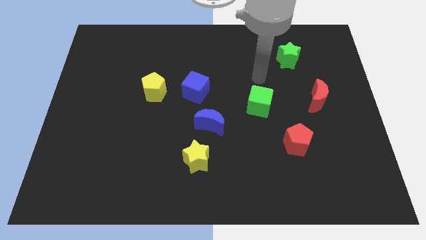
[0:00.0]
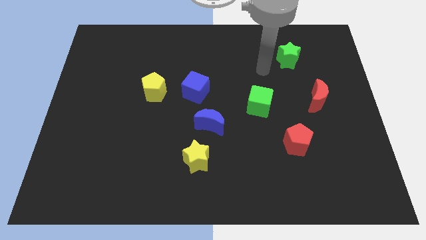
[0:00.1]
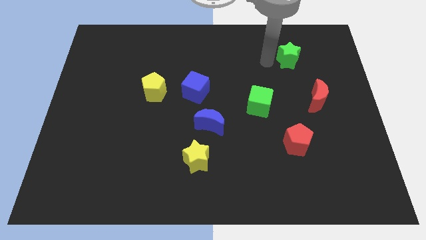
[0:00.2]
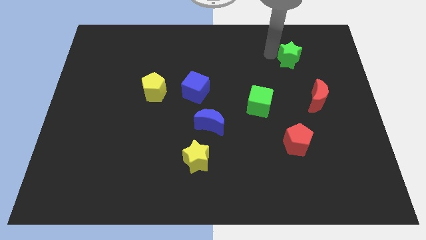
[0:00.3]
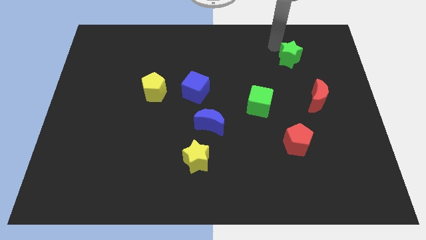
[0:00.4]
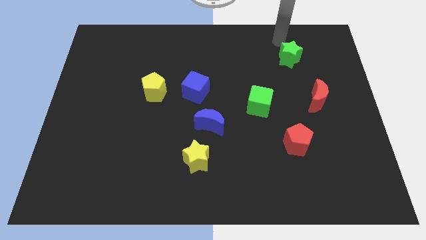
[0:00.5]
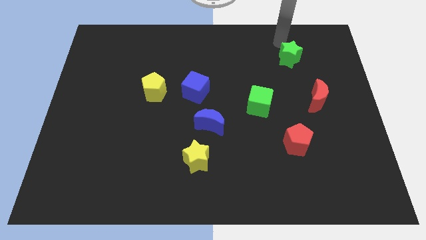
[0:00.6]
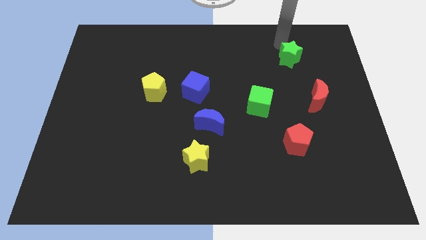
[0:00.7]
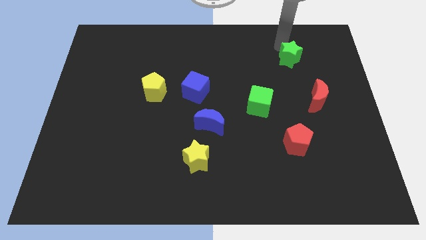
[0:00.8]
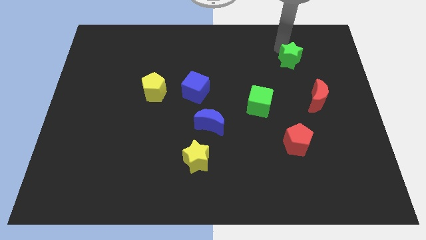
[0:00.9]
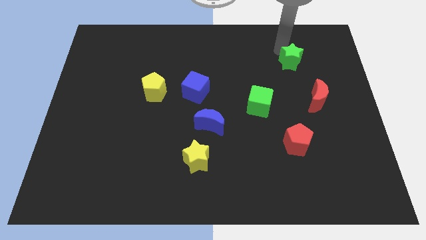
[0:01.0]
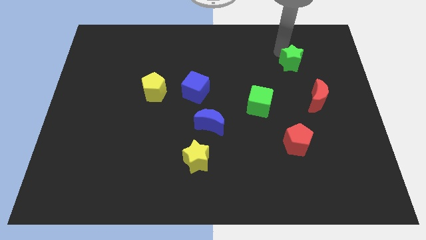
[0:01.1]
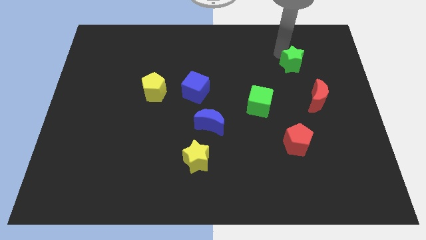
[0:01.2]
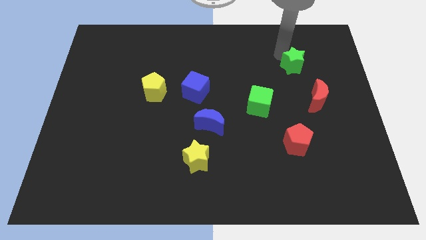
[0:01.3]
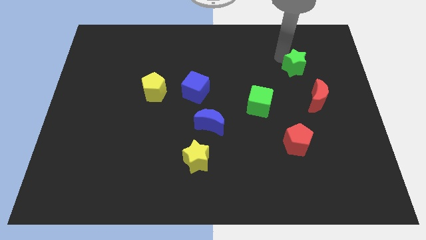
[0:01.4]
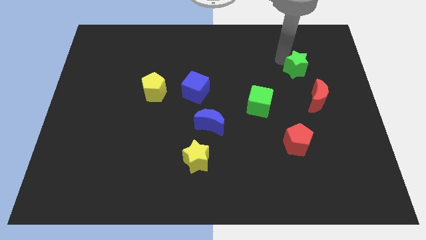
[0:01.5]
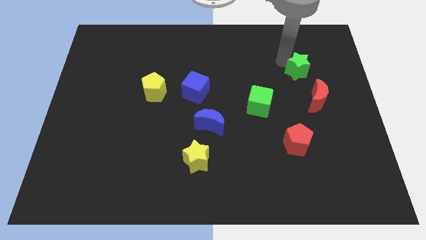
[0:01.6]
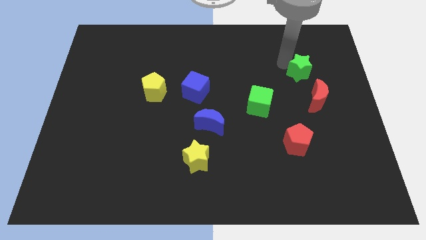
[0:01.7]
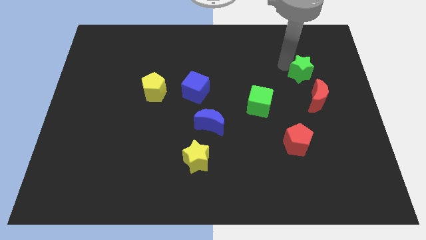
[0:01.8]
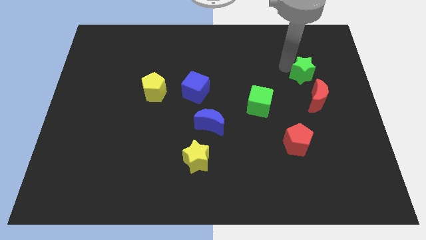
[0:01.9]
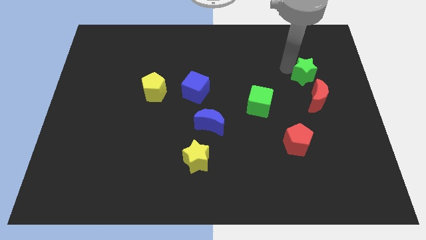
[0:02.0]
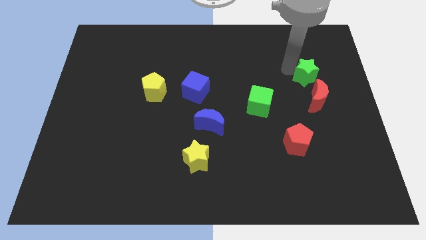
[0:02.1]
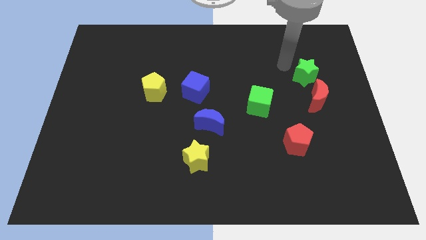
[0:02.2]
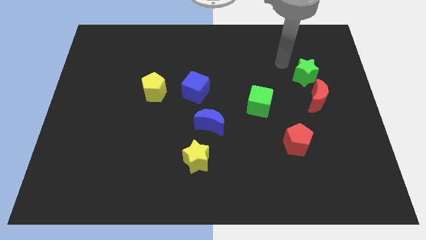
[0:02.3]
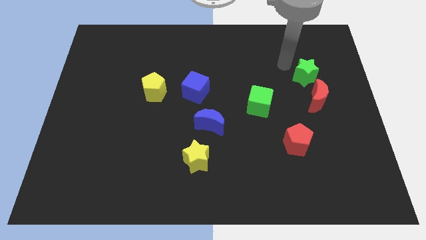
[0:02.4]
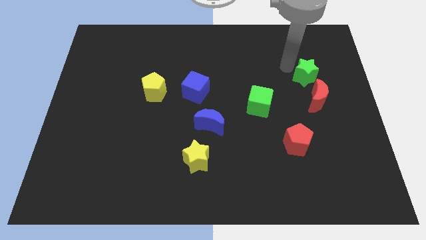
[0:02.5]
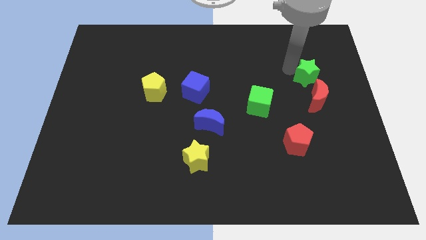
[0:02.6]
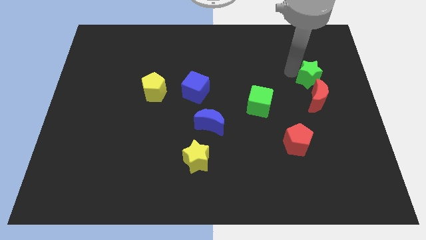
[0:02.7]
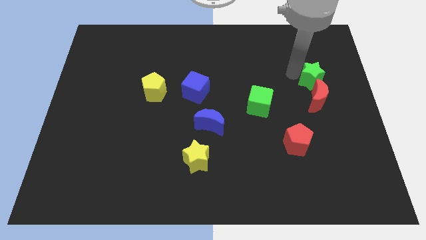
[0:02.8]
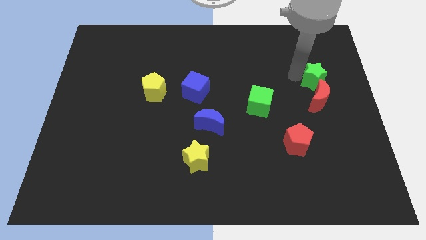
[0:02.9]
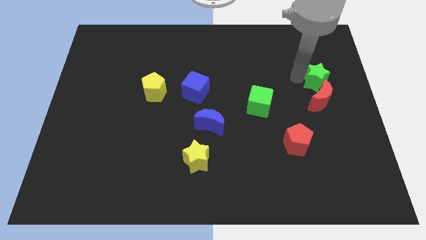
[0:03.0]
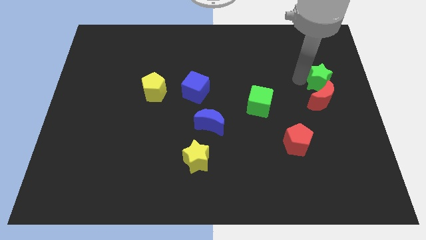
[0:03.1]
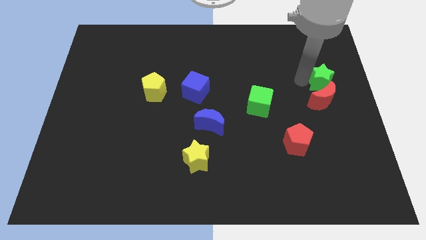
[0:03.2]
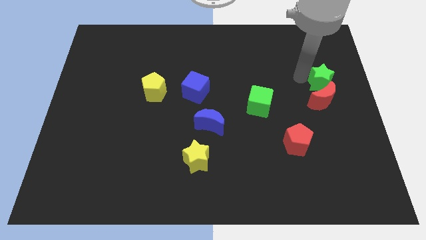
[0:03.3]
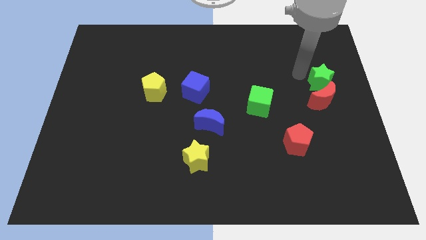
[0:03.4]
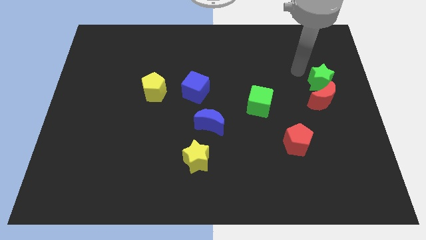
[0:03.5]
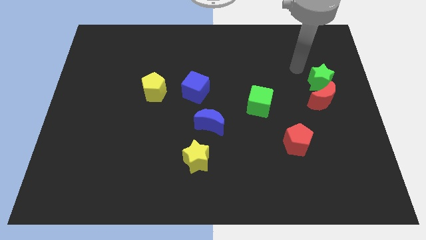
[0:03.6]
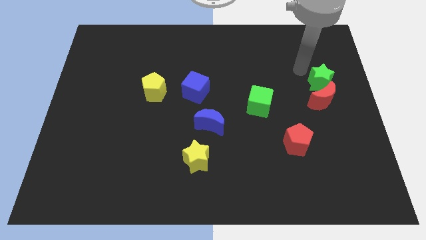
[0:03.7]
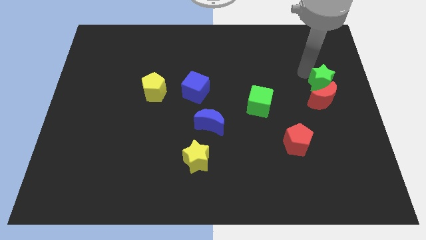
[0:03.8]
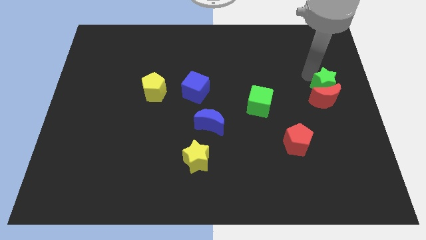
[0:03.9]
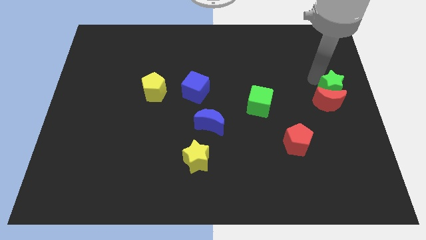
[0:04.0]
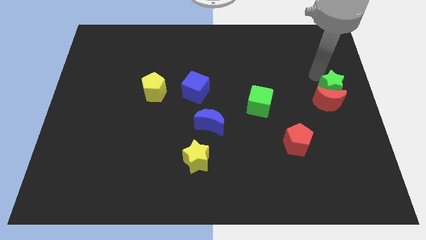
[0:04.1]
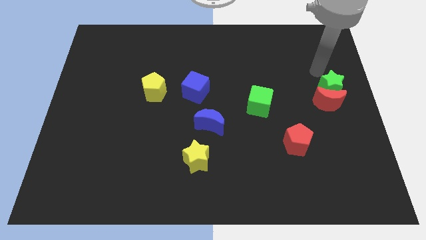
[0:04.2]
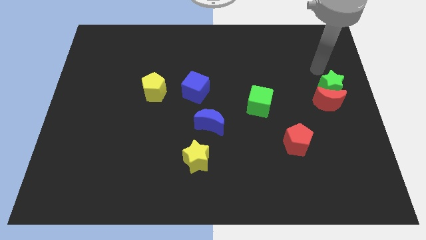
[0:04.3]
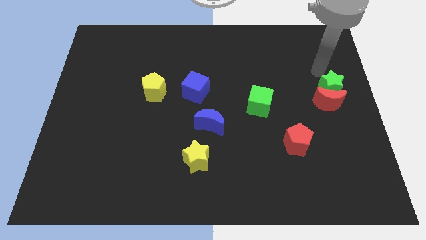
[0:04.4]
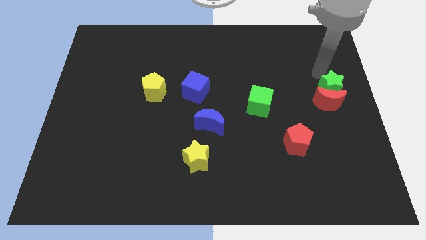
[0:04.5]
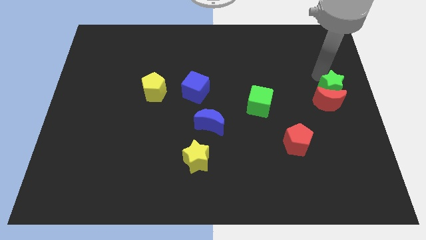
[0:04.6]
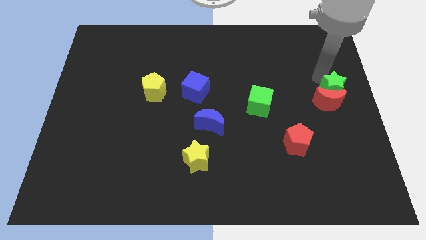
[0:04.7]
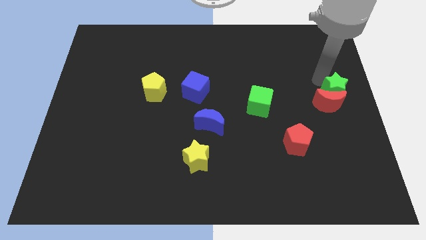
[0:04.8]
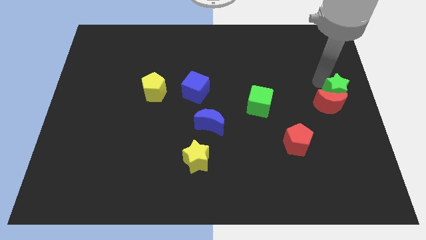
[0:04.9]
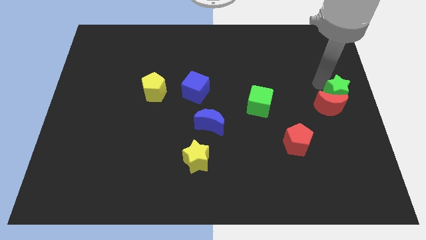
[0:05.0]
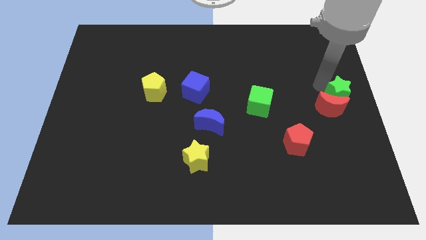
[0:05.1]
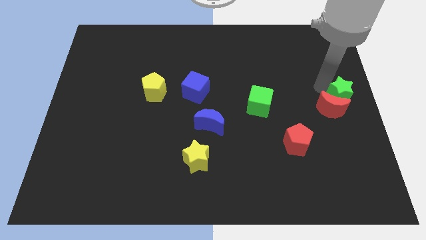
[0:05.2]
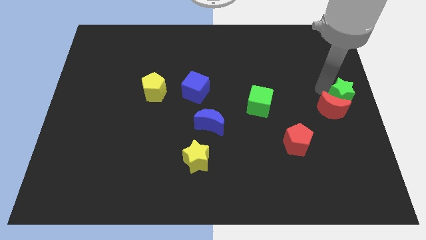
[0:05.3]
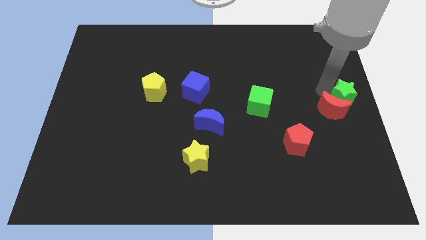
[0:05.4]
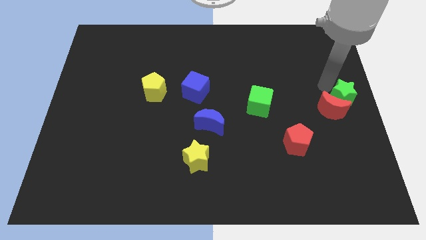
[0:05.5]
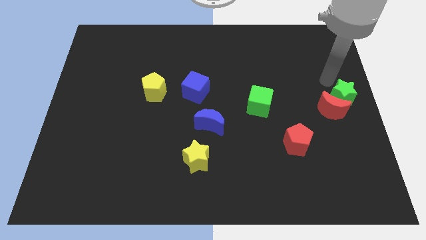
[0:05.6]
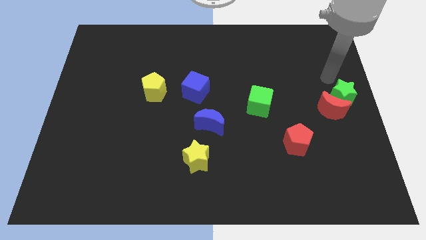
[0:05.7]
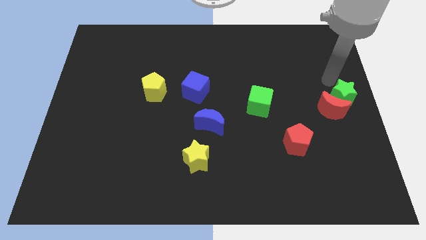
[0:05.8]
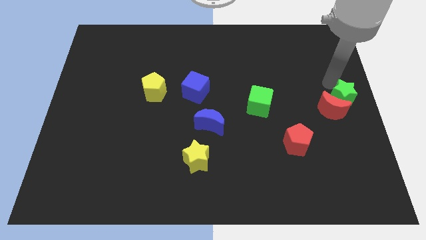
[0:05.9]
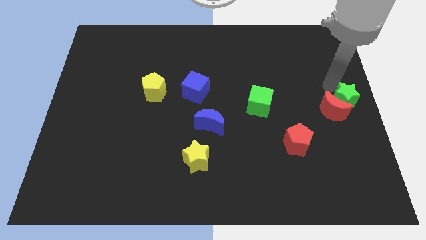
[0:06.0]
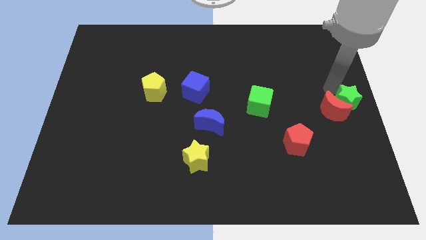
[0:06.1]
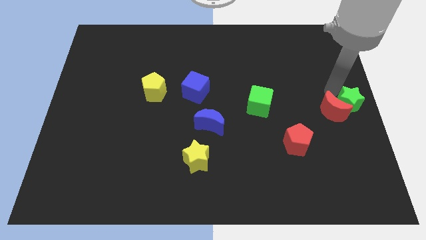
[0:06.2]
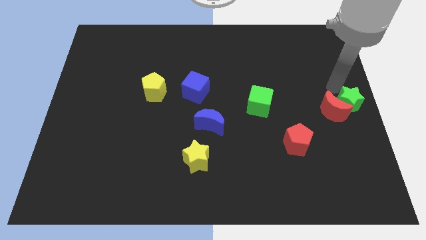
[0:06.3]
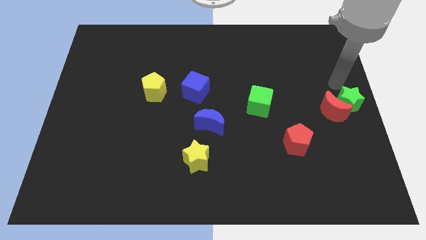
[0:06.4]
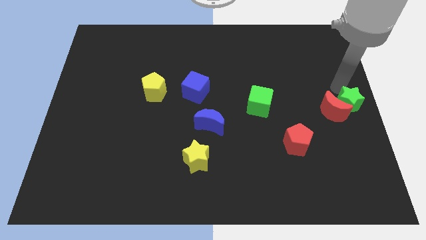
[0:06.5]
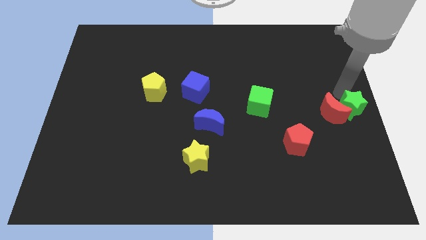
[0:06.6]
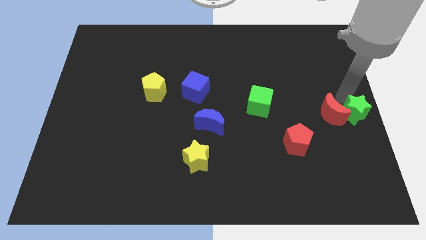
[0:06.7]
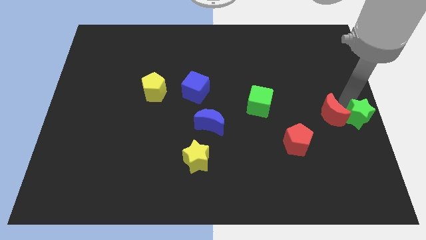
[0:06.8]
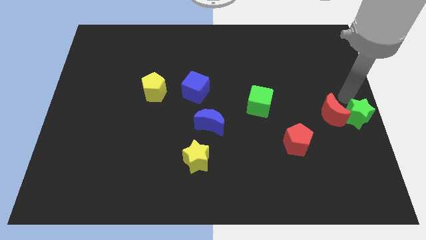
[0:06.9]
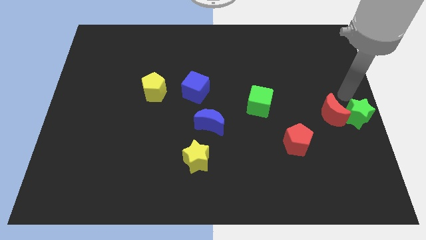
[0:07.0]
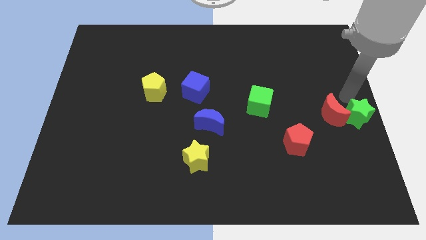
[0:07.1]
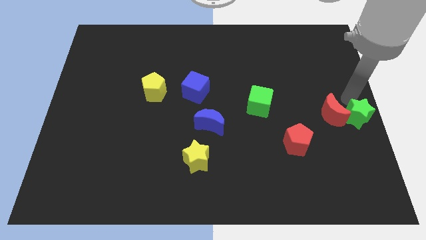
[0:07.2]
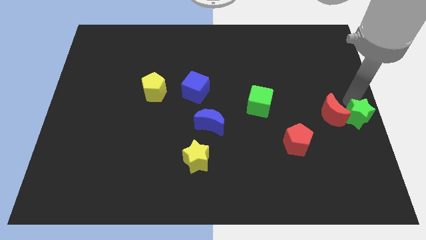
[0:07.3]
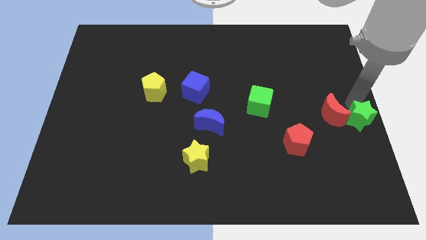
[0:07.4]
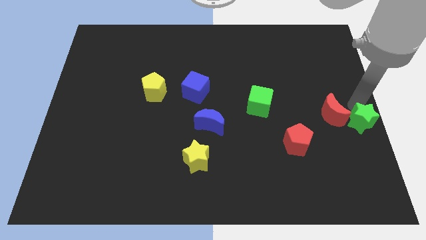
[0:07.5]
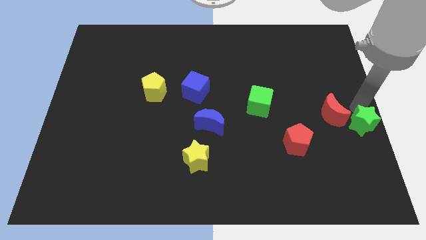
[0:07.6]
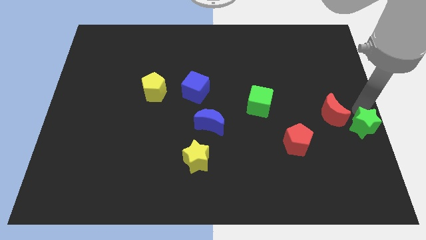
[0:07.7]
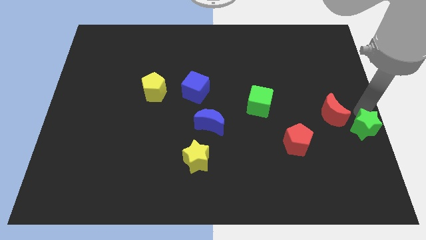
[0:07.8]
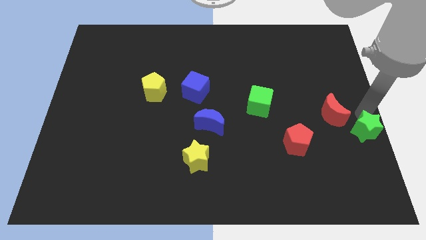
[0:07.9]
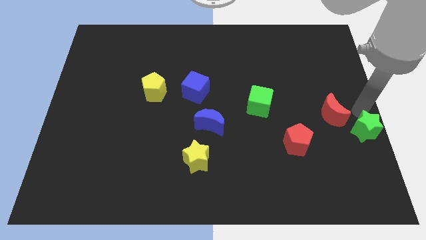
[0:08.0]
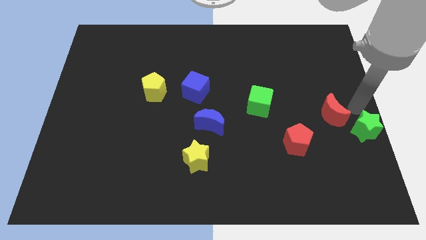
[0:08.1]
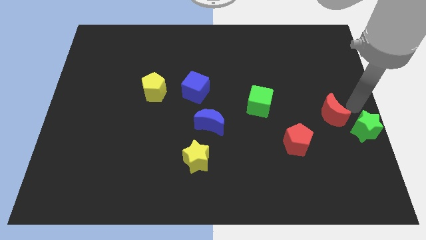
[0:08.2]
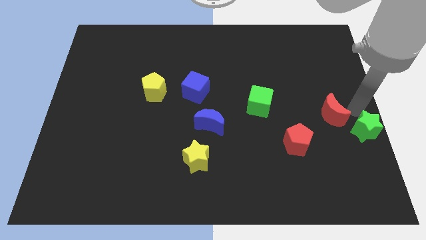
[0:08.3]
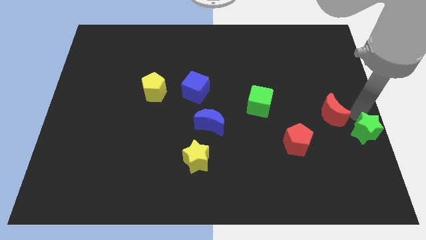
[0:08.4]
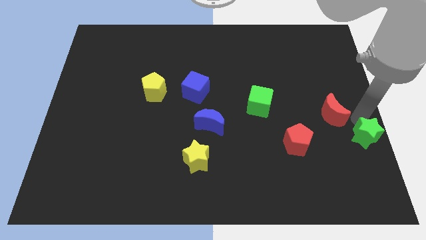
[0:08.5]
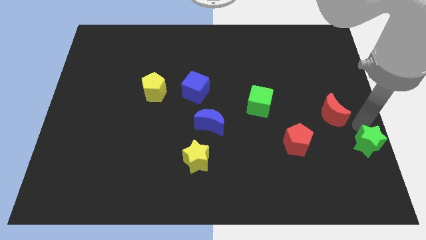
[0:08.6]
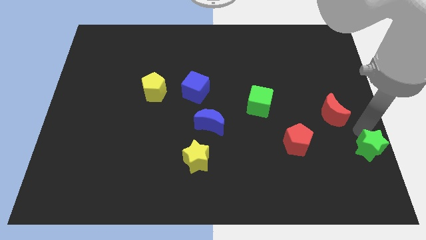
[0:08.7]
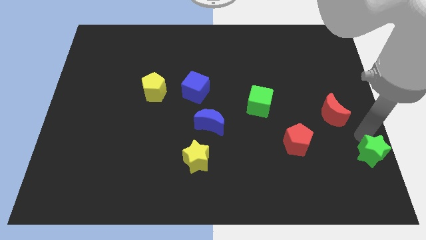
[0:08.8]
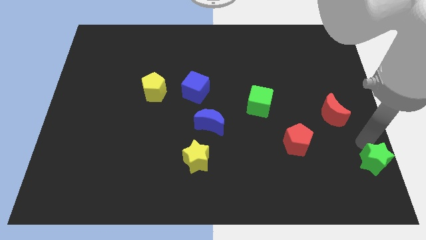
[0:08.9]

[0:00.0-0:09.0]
move the green star to the lower right corner
